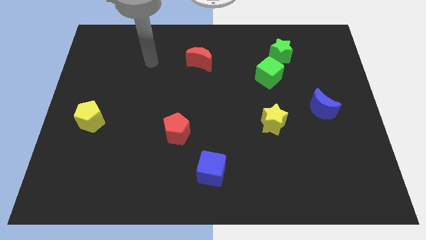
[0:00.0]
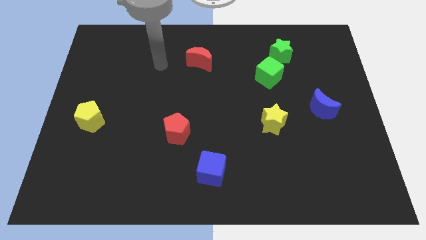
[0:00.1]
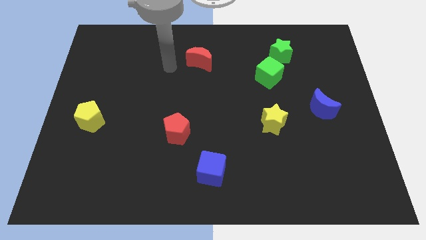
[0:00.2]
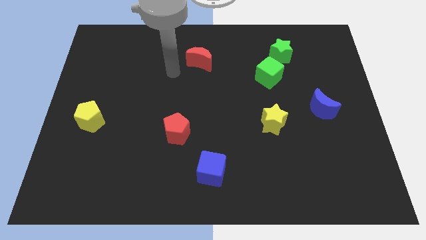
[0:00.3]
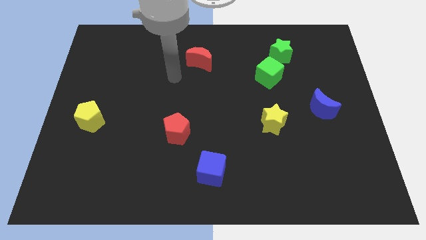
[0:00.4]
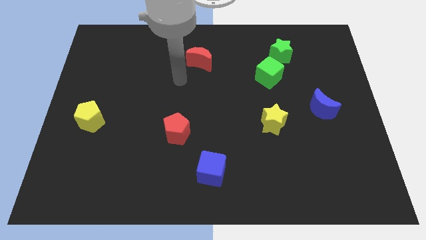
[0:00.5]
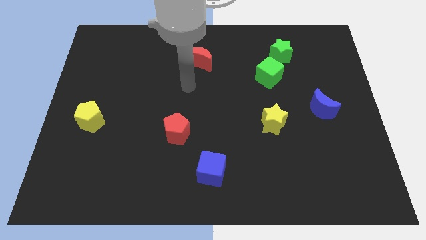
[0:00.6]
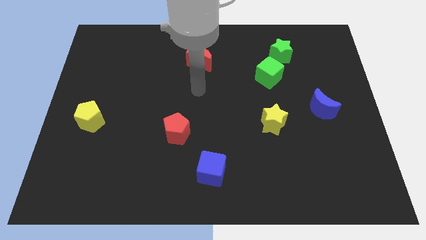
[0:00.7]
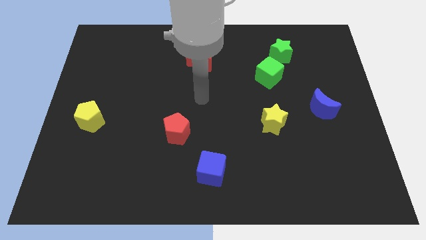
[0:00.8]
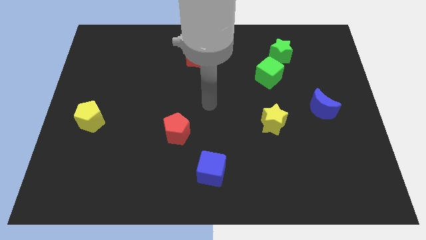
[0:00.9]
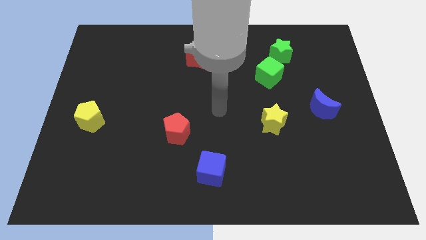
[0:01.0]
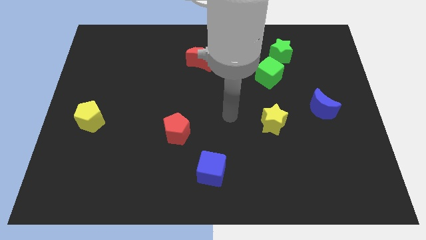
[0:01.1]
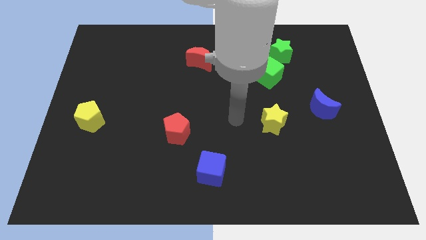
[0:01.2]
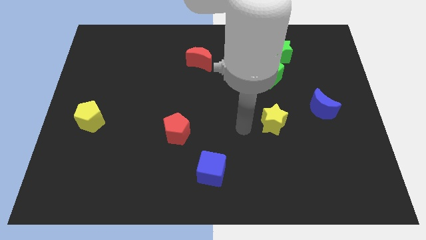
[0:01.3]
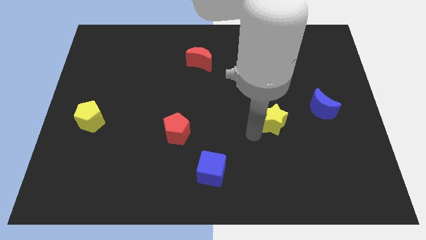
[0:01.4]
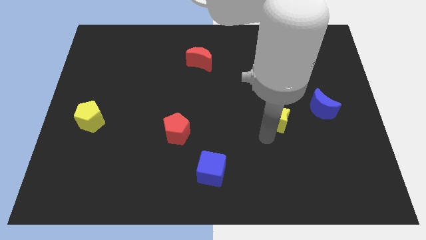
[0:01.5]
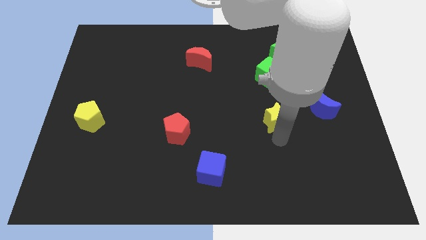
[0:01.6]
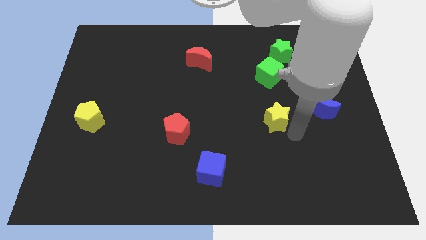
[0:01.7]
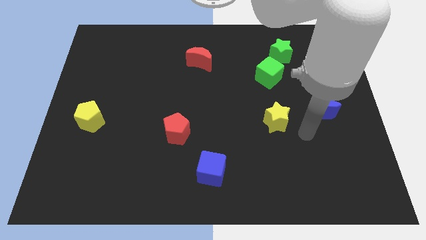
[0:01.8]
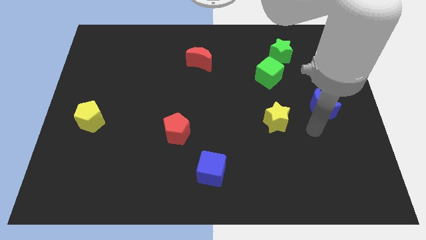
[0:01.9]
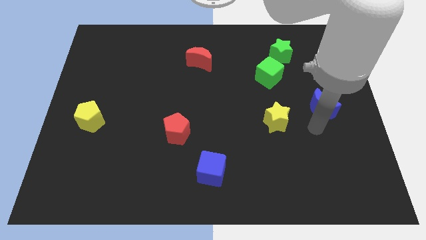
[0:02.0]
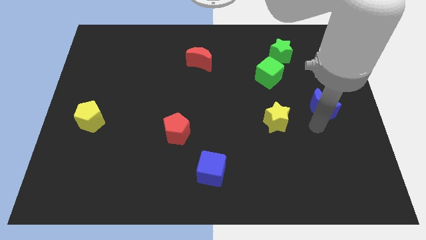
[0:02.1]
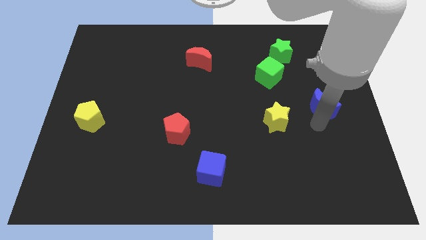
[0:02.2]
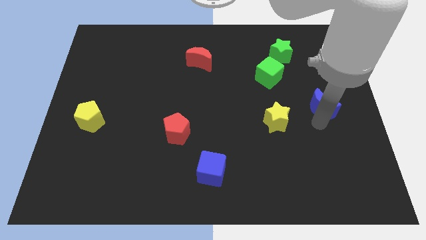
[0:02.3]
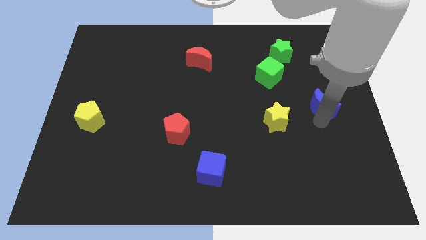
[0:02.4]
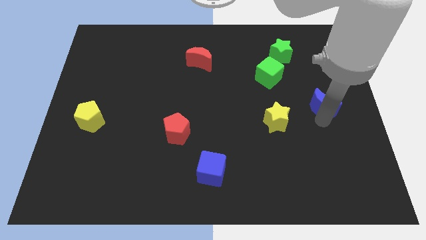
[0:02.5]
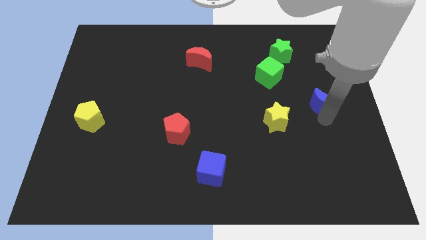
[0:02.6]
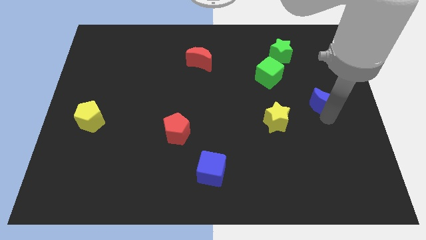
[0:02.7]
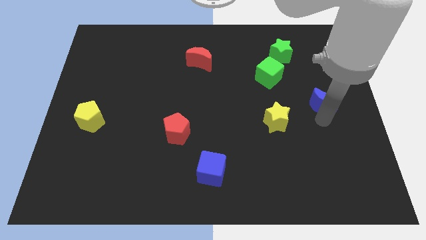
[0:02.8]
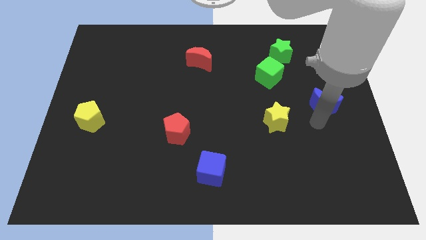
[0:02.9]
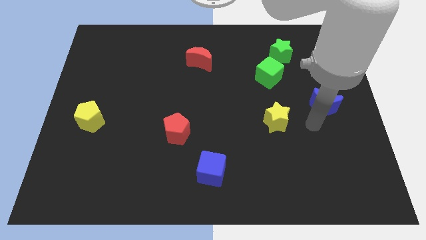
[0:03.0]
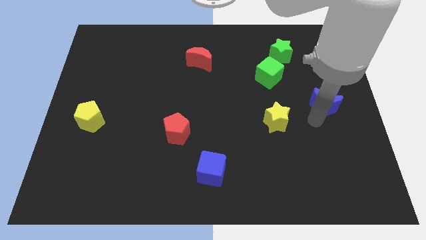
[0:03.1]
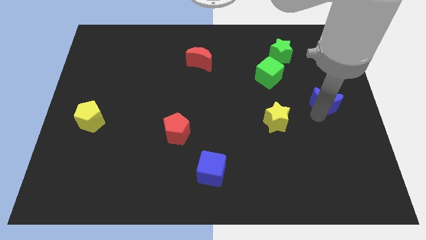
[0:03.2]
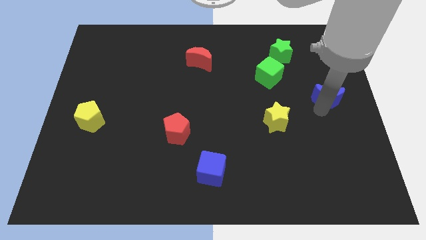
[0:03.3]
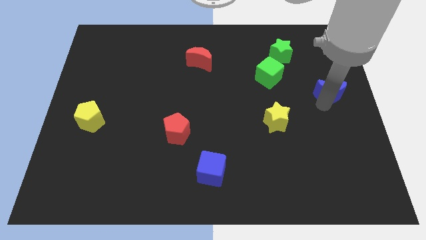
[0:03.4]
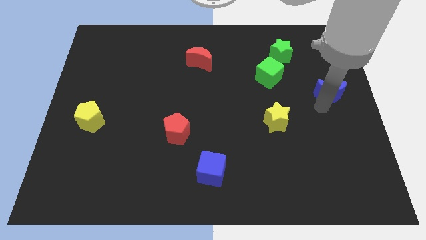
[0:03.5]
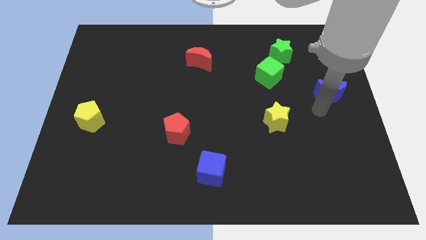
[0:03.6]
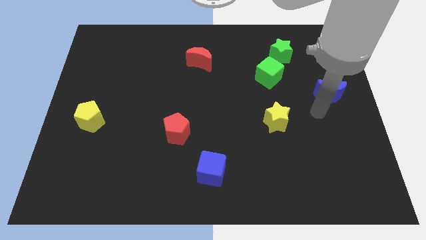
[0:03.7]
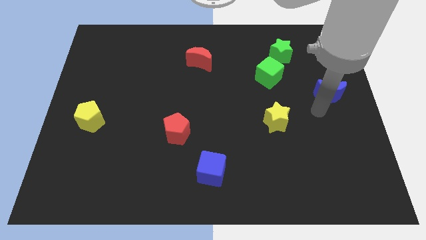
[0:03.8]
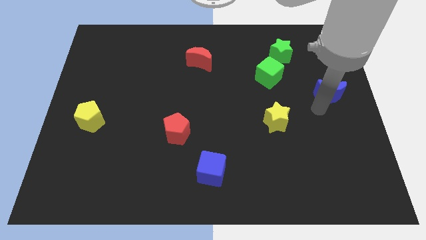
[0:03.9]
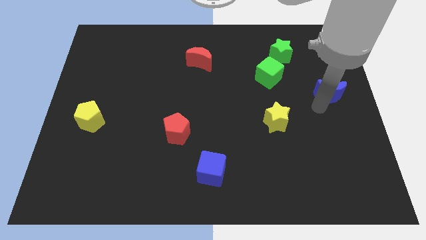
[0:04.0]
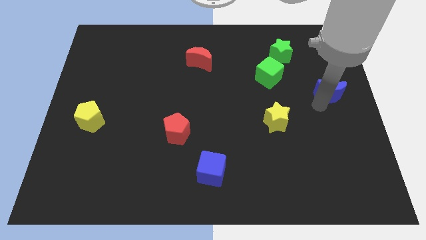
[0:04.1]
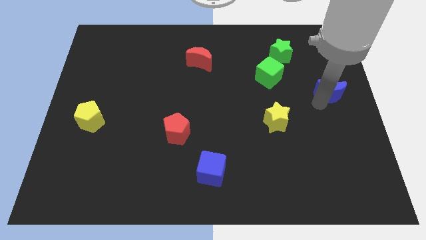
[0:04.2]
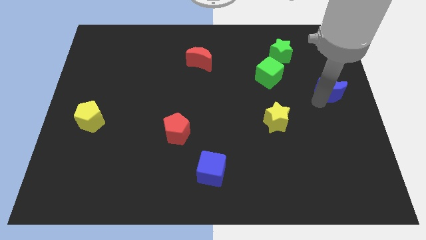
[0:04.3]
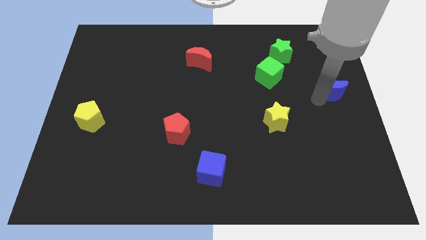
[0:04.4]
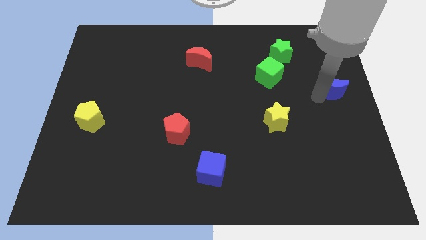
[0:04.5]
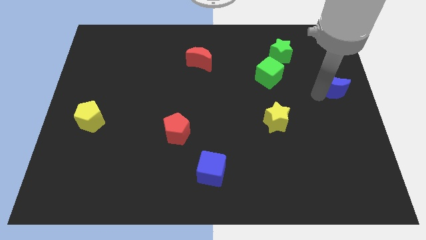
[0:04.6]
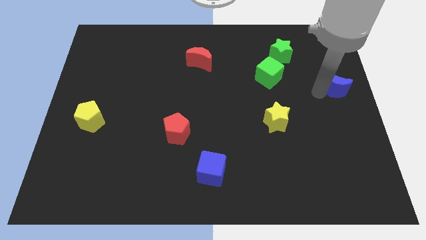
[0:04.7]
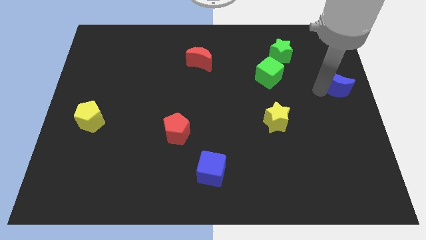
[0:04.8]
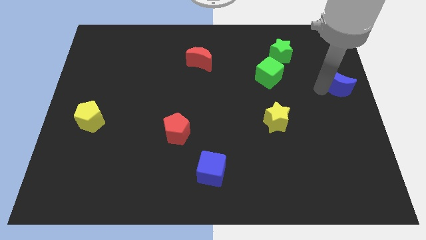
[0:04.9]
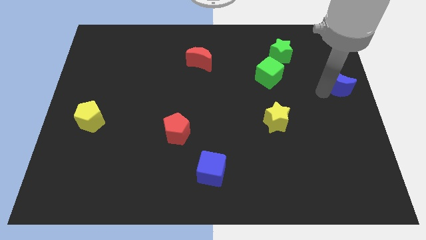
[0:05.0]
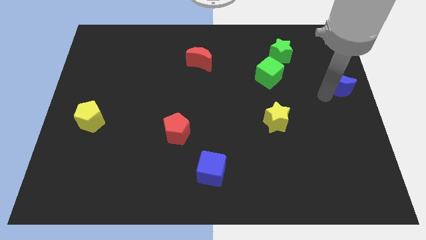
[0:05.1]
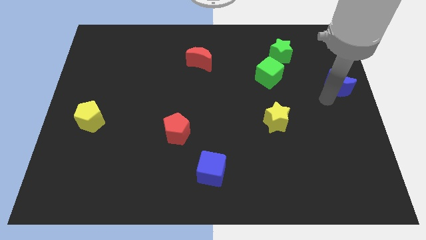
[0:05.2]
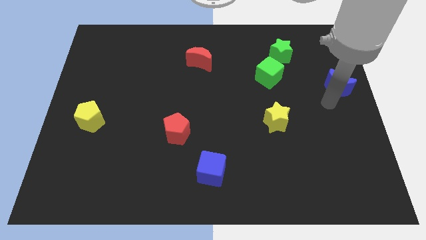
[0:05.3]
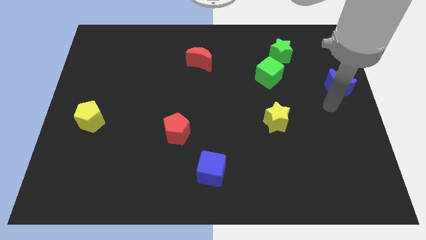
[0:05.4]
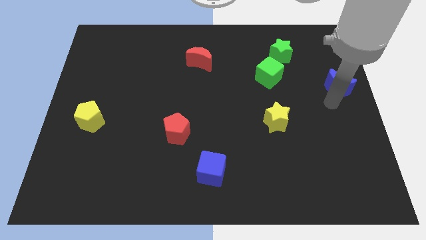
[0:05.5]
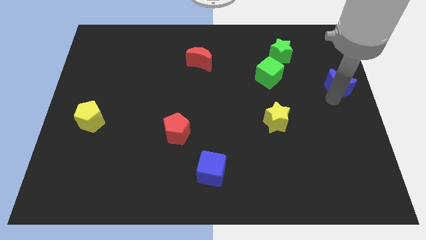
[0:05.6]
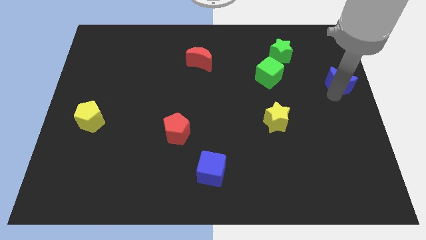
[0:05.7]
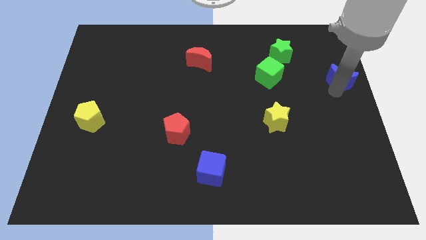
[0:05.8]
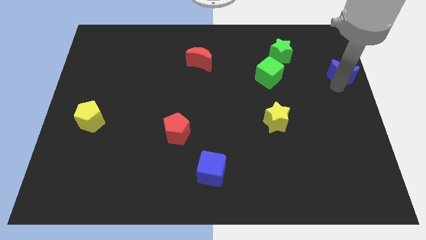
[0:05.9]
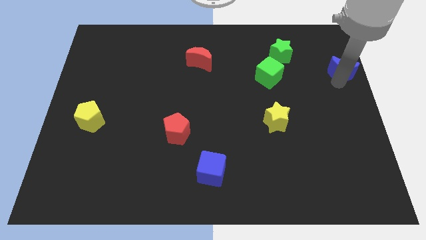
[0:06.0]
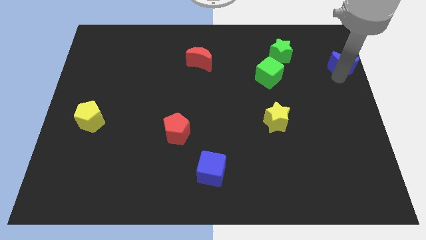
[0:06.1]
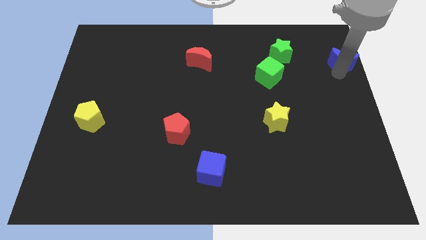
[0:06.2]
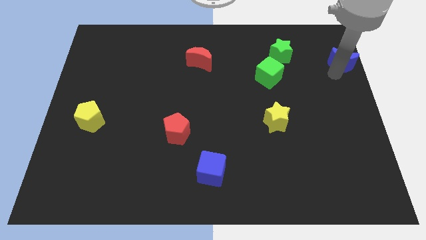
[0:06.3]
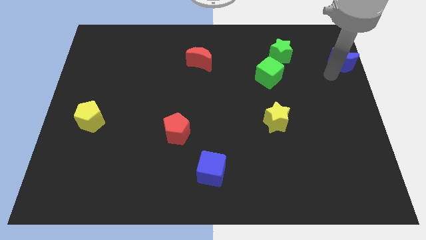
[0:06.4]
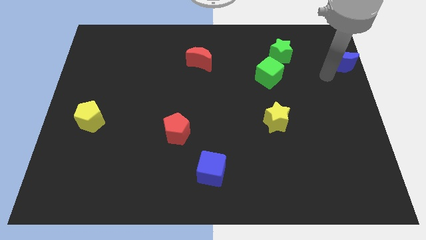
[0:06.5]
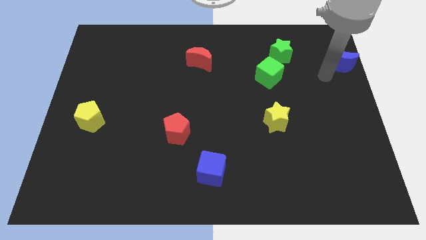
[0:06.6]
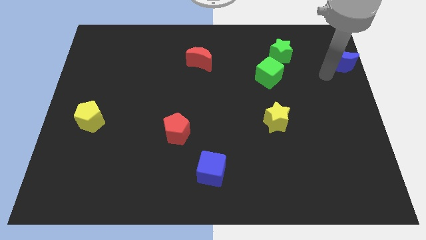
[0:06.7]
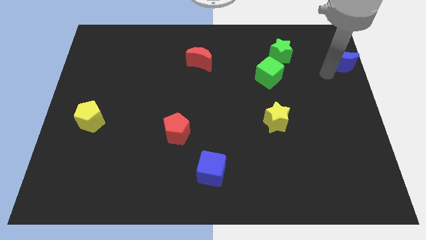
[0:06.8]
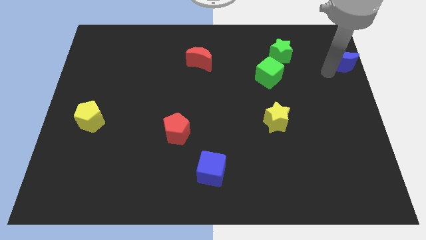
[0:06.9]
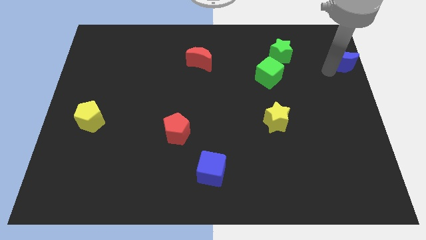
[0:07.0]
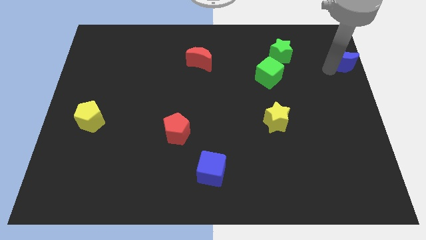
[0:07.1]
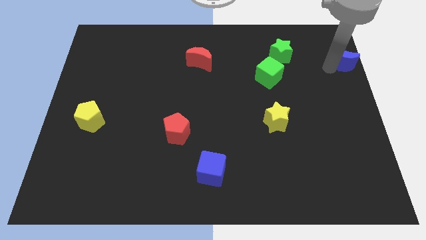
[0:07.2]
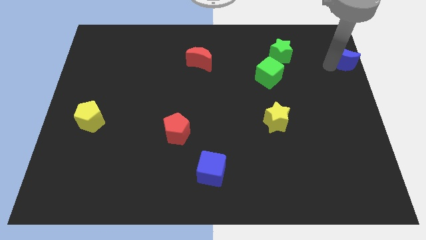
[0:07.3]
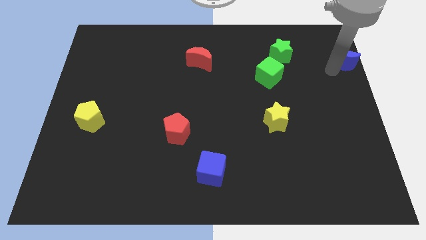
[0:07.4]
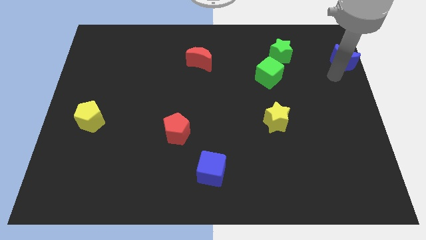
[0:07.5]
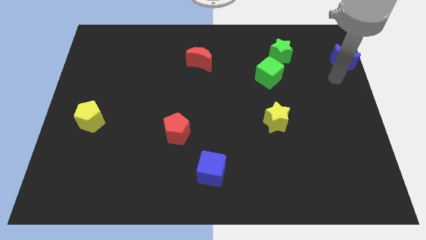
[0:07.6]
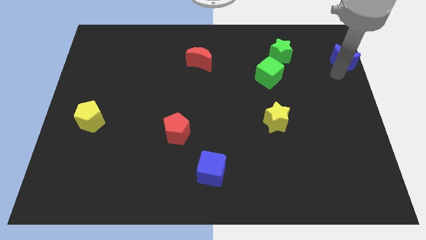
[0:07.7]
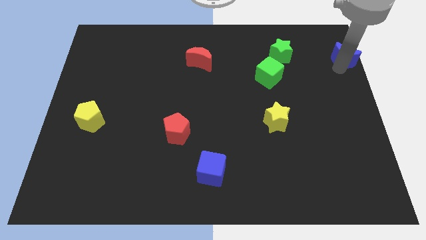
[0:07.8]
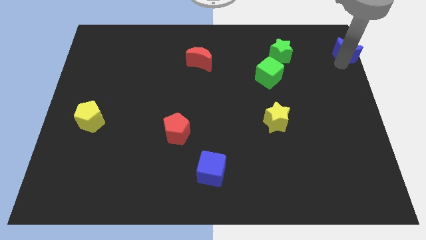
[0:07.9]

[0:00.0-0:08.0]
slide the blue moon to the top right
